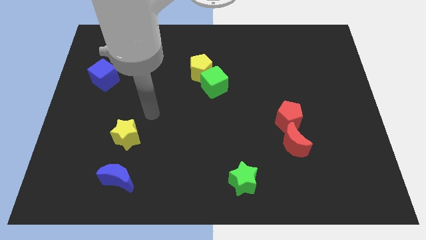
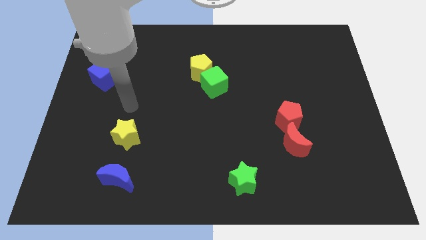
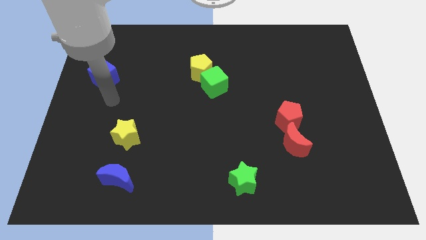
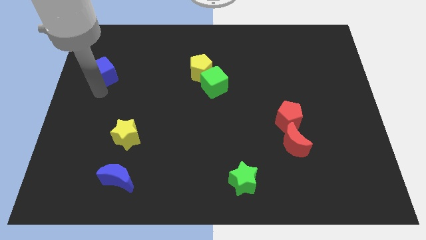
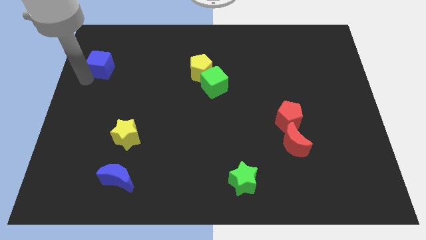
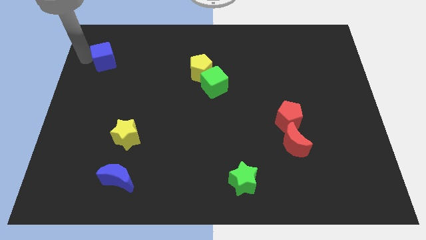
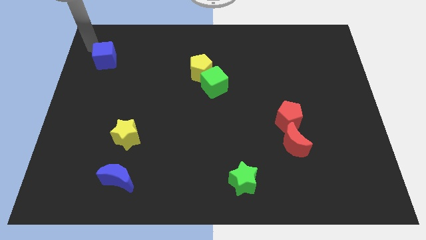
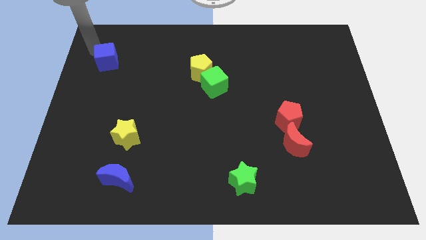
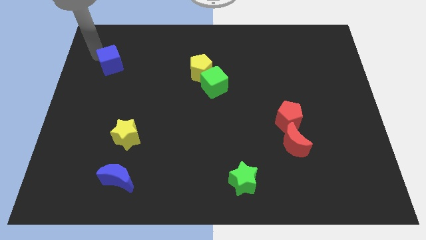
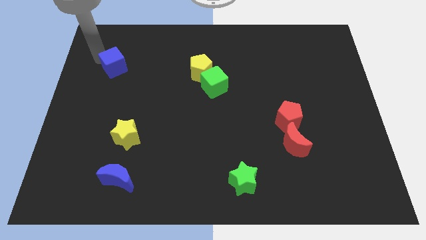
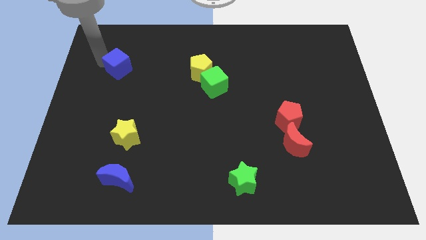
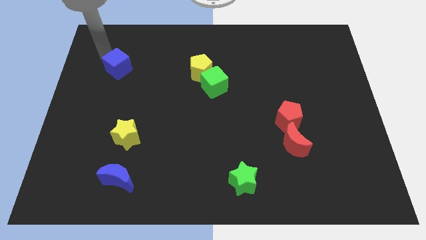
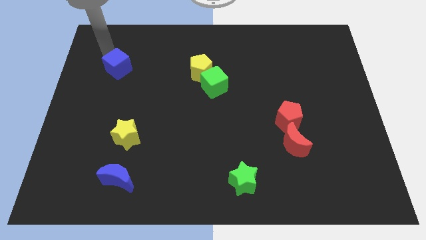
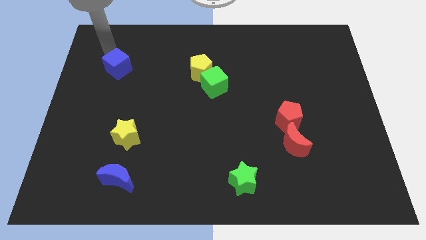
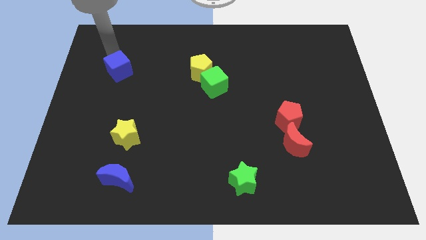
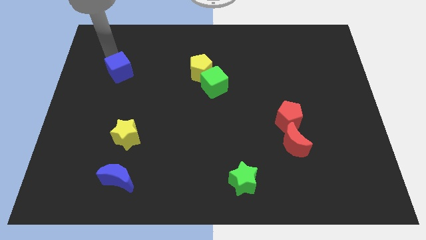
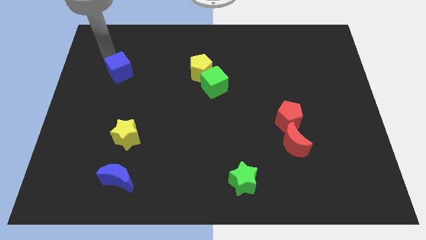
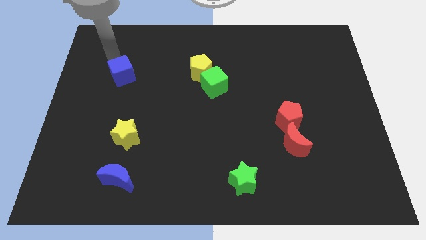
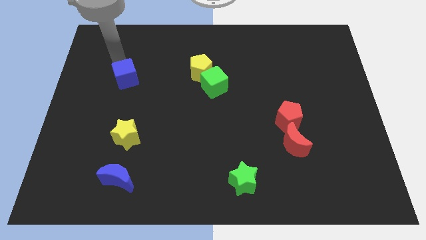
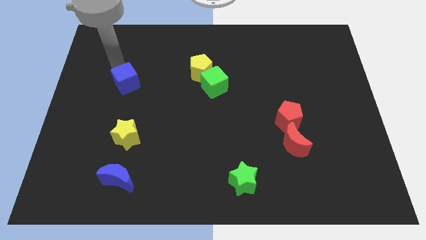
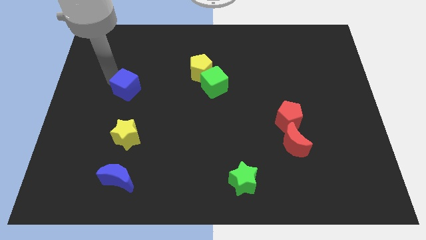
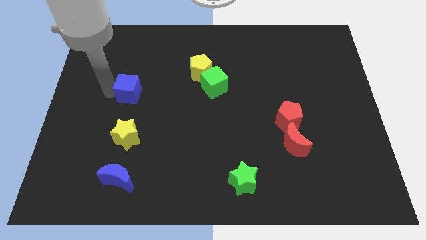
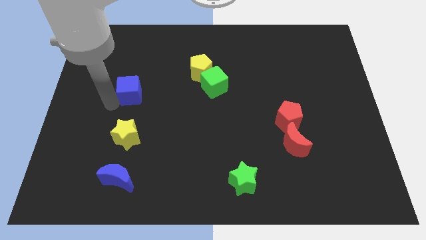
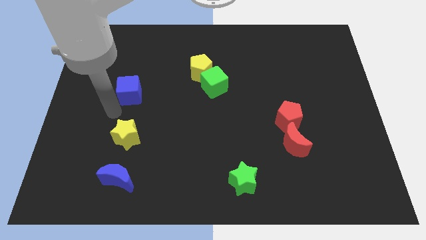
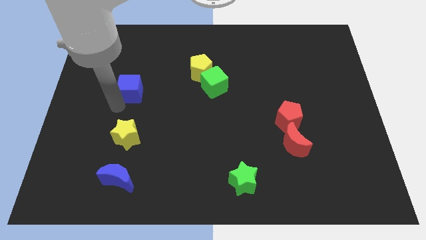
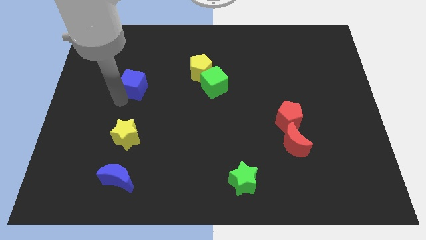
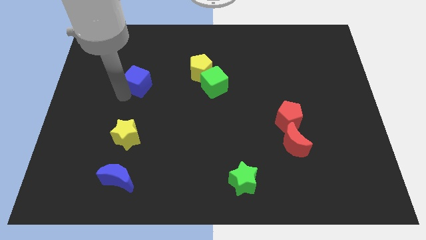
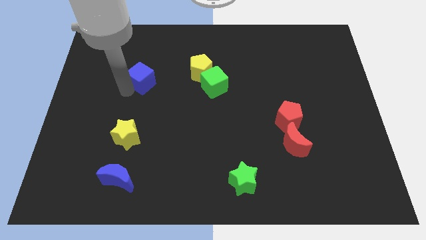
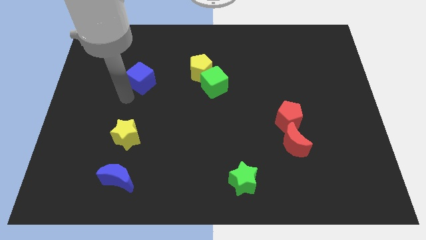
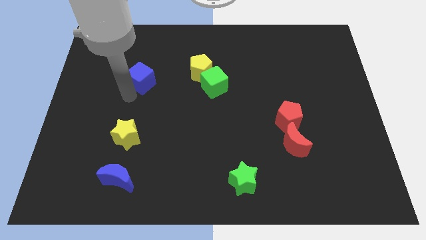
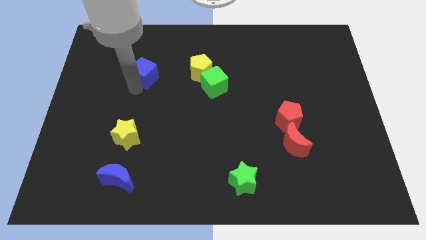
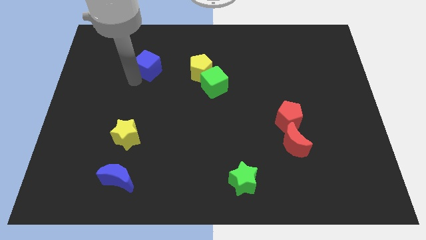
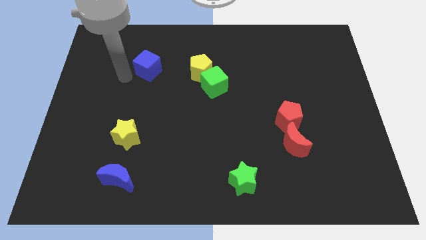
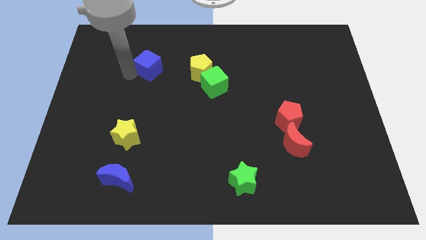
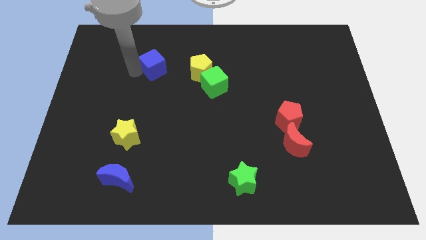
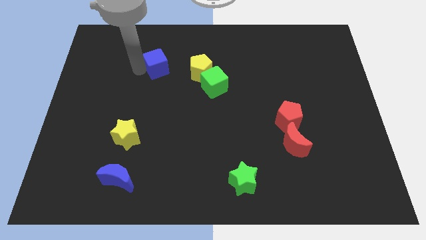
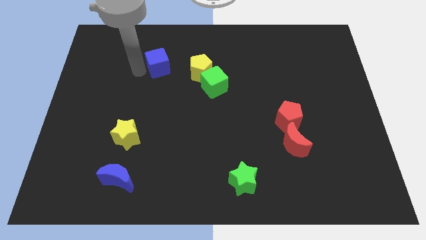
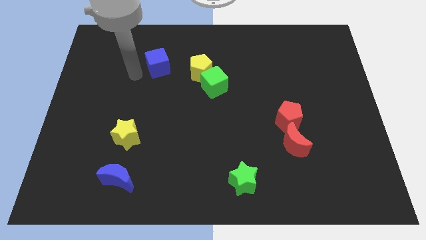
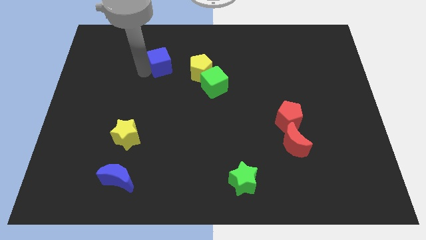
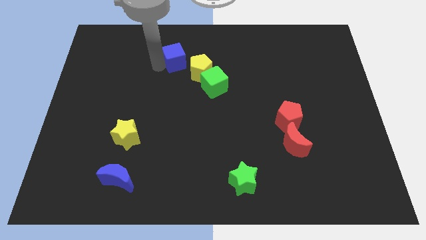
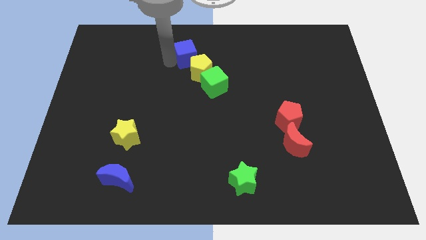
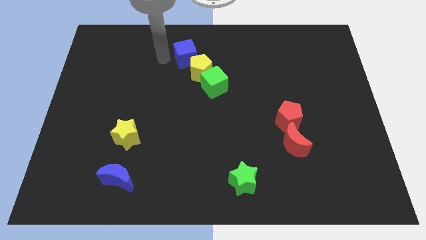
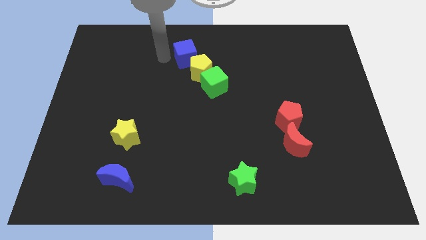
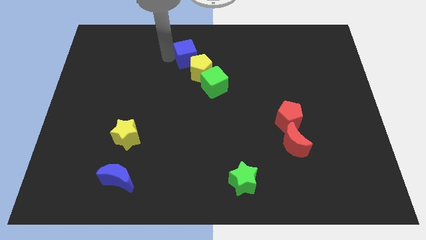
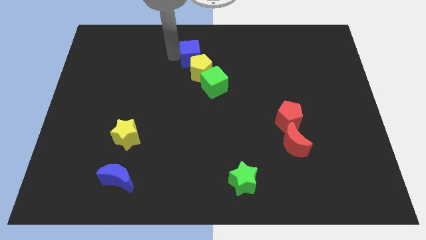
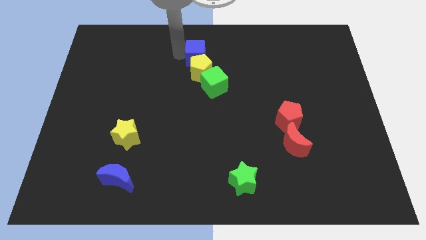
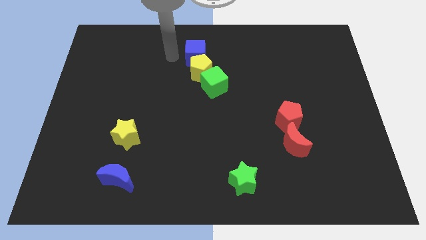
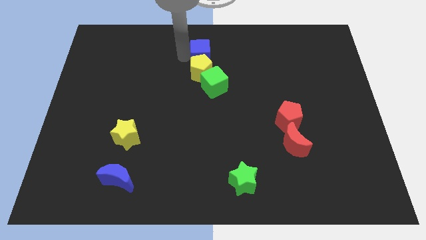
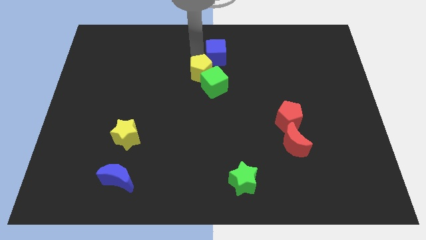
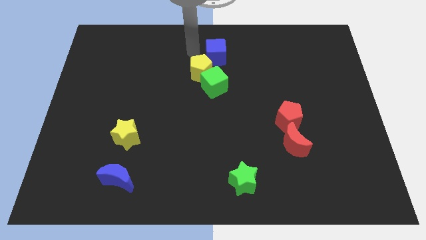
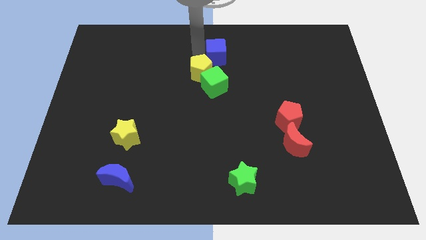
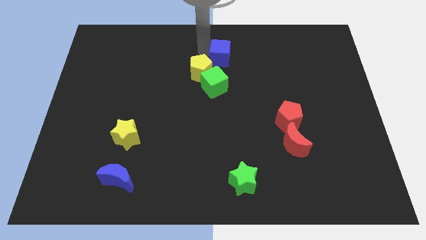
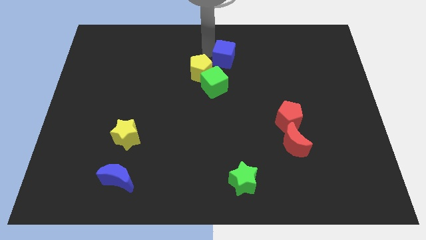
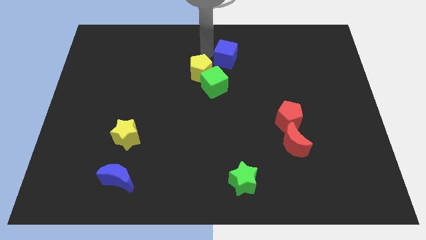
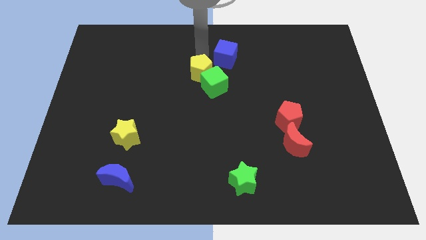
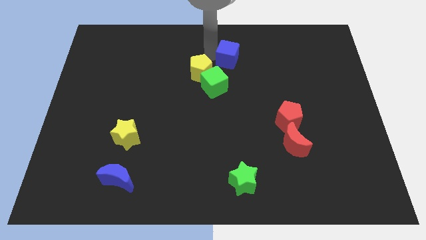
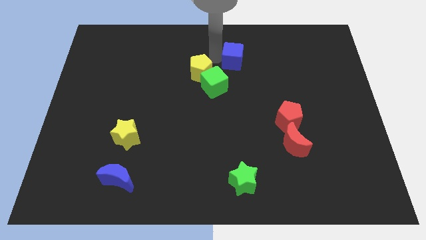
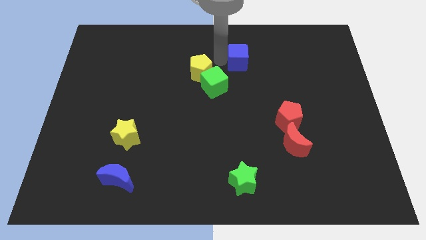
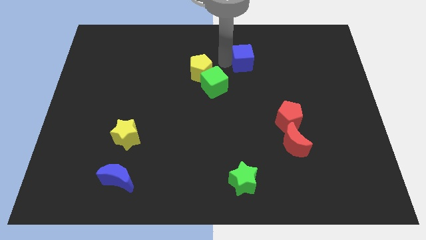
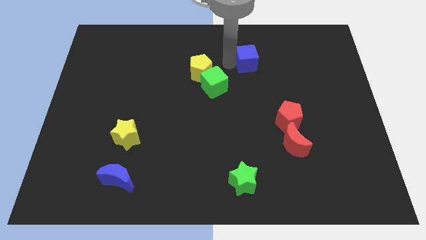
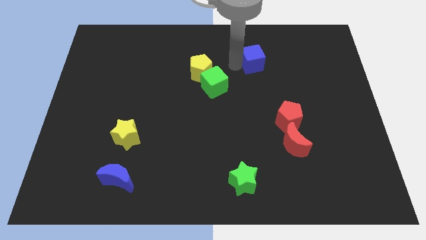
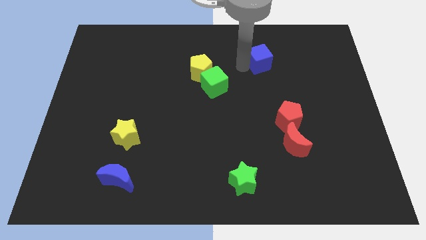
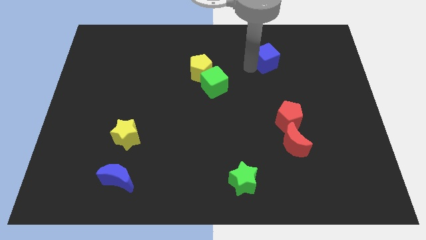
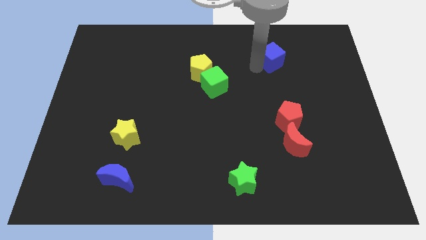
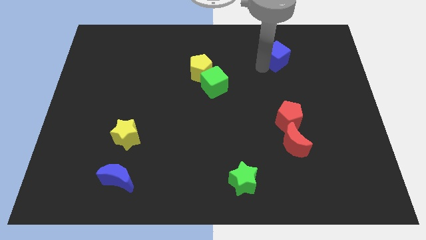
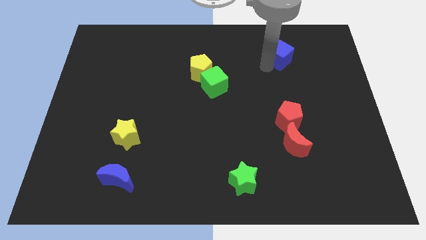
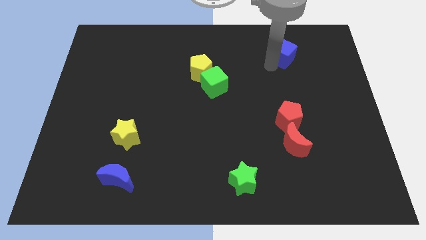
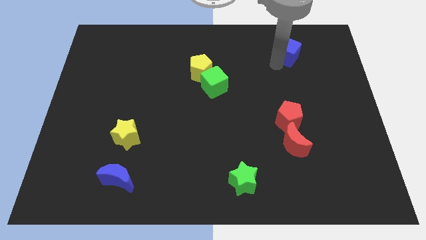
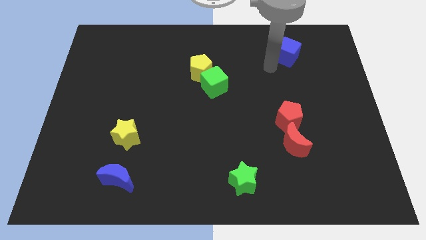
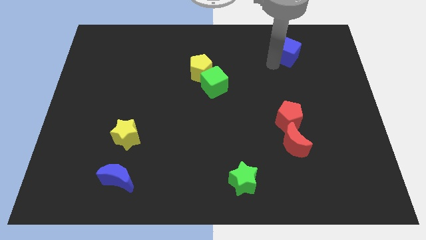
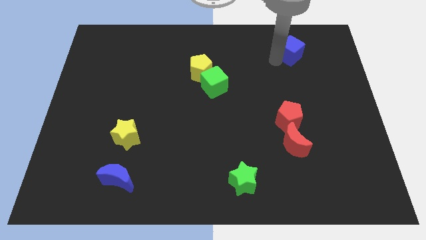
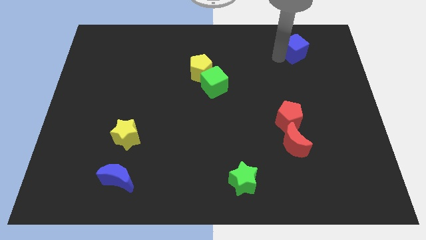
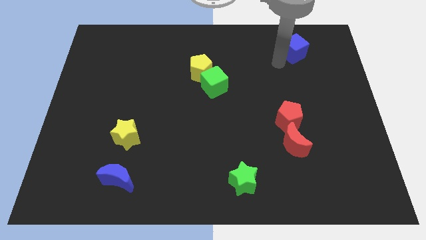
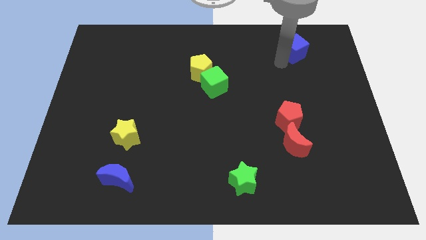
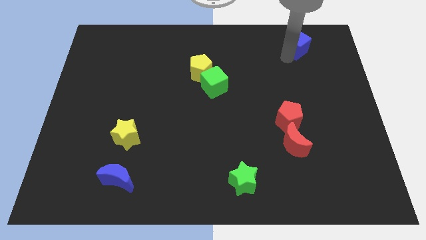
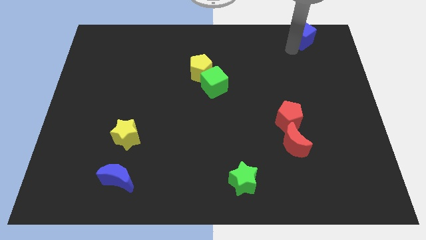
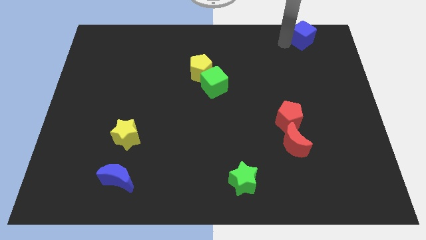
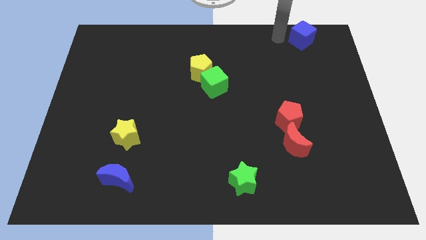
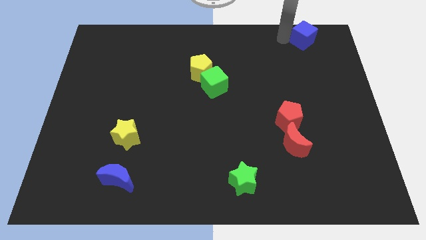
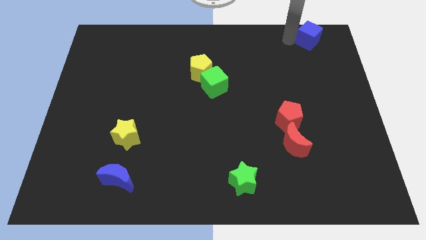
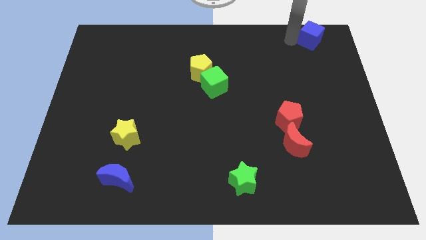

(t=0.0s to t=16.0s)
put the blue cube to the top right corner
